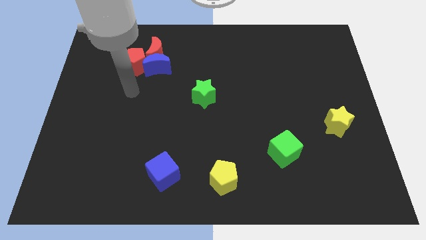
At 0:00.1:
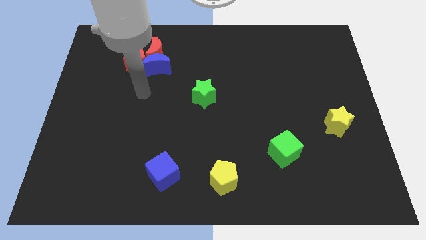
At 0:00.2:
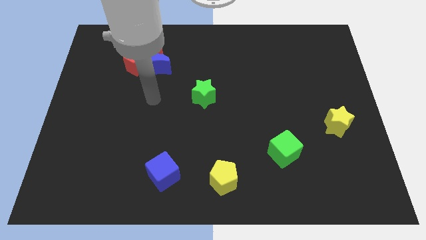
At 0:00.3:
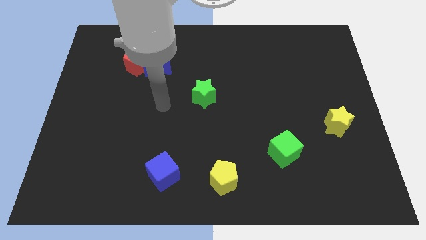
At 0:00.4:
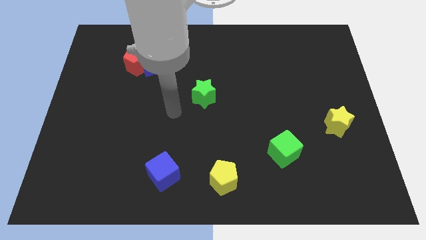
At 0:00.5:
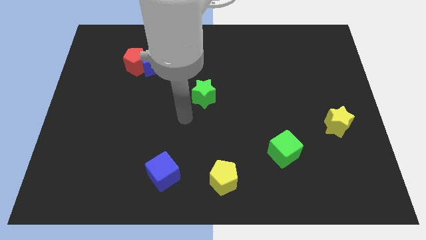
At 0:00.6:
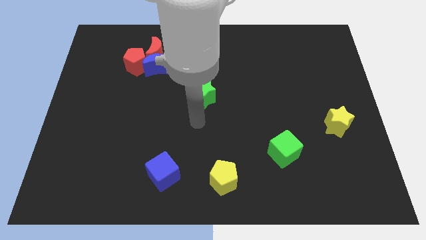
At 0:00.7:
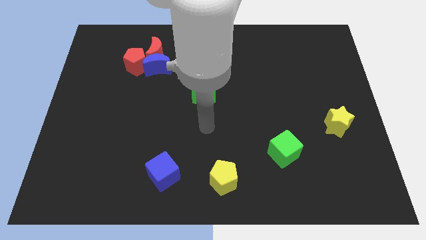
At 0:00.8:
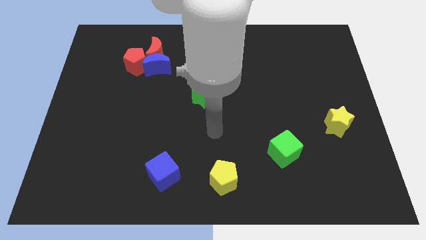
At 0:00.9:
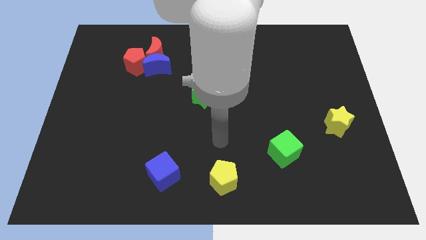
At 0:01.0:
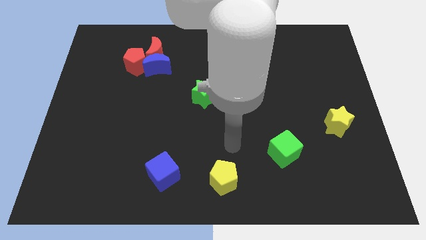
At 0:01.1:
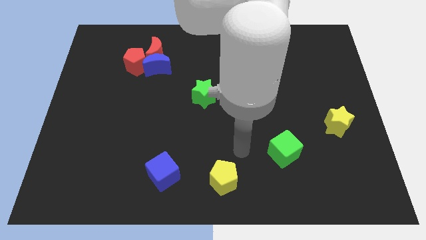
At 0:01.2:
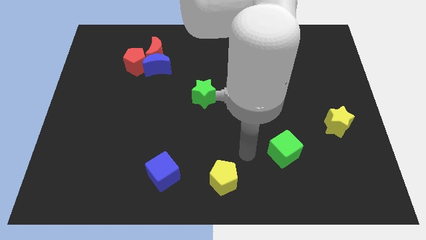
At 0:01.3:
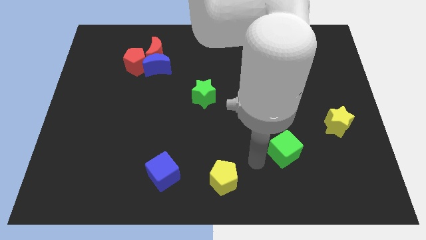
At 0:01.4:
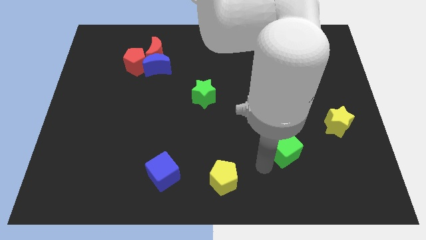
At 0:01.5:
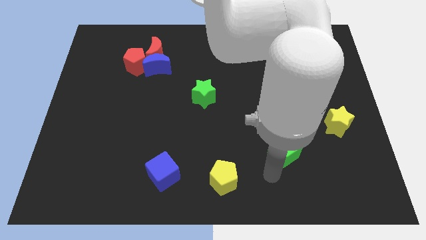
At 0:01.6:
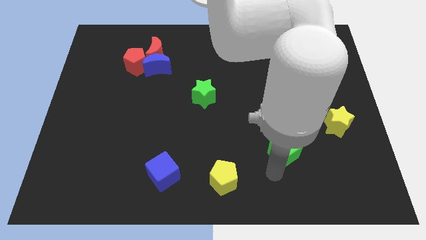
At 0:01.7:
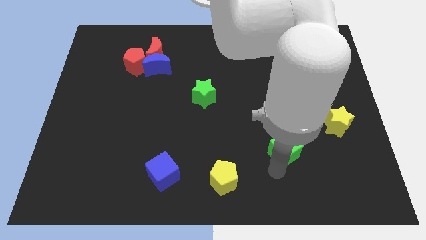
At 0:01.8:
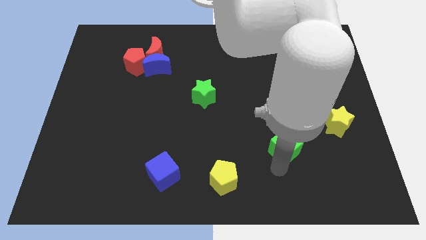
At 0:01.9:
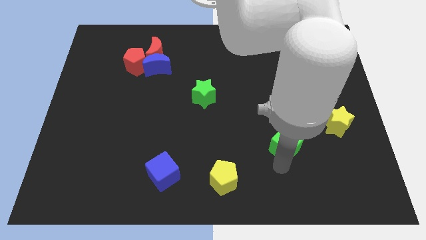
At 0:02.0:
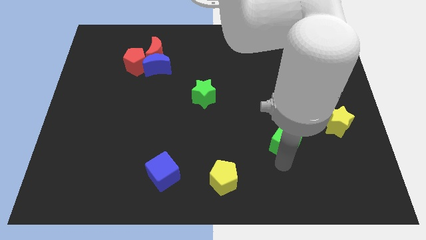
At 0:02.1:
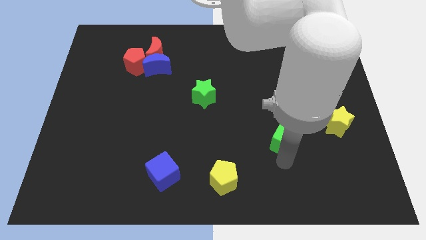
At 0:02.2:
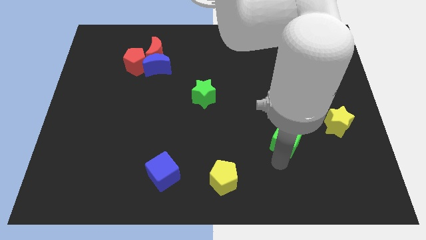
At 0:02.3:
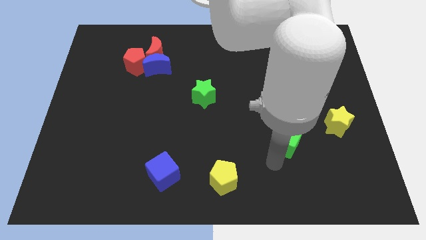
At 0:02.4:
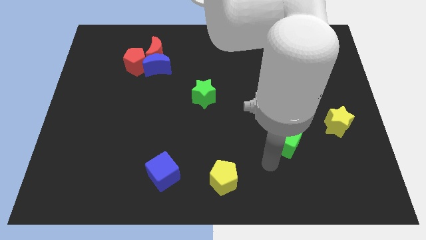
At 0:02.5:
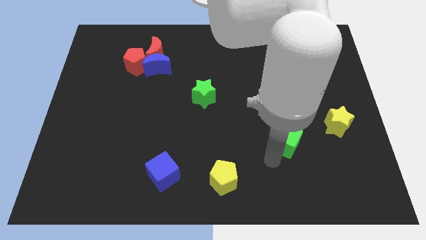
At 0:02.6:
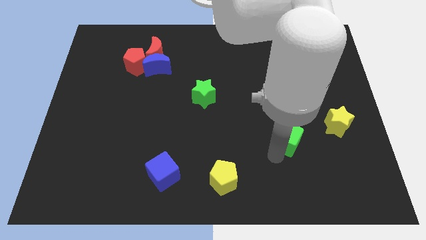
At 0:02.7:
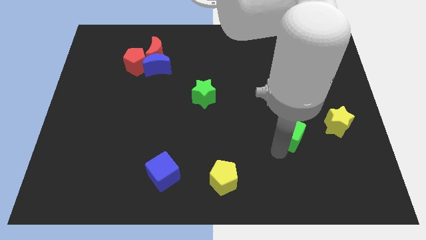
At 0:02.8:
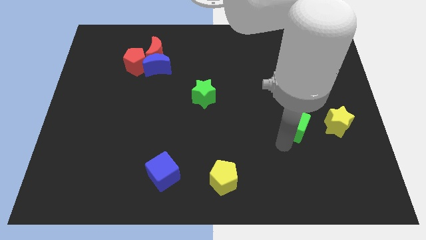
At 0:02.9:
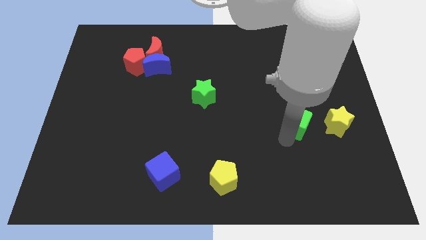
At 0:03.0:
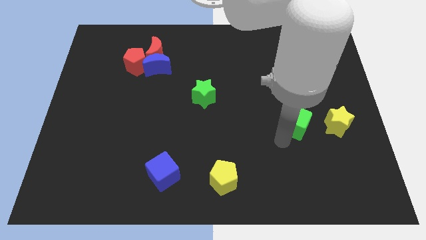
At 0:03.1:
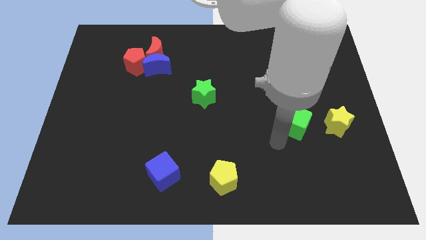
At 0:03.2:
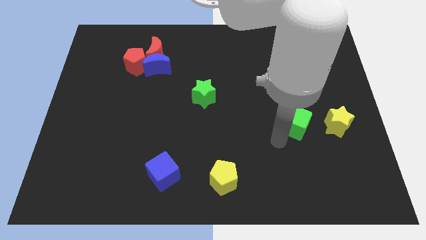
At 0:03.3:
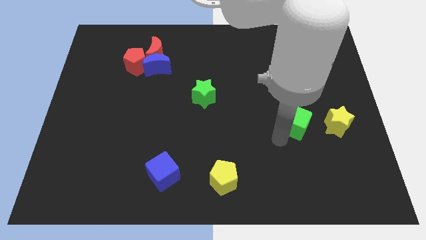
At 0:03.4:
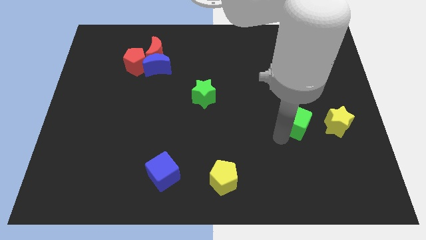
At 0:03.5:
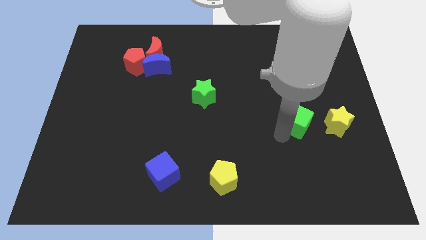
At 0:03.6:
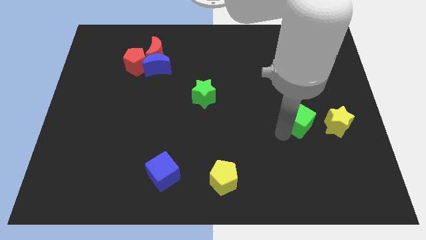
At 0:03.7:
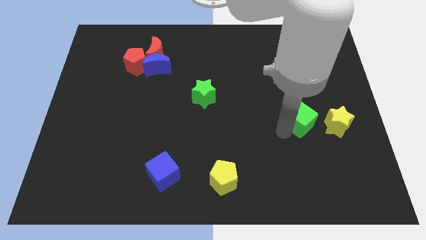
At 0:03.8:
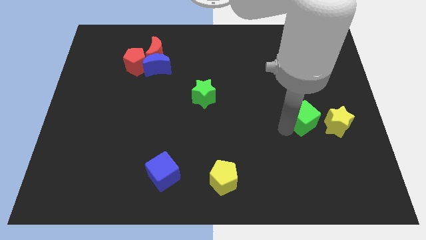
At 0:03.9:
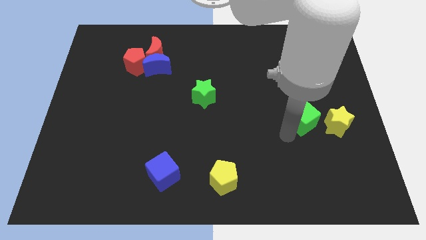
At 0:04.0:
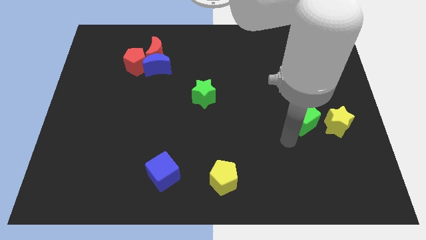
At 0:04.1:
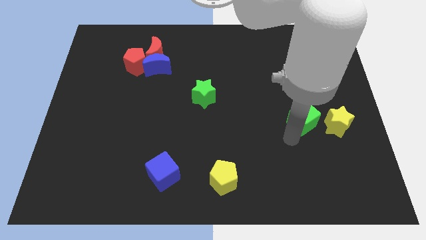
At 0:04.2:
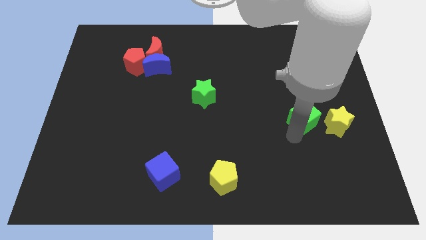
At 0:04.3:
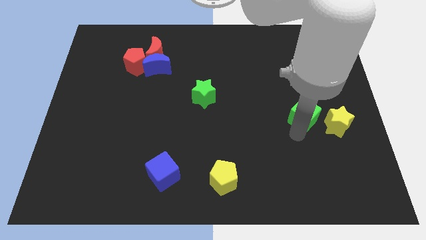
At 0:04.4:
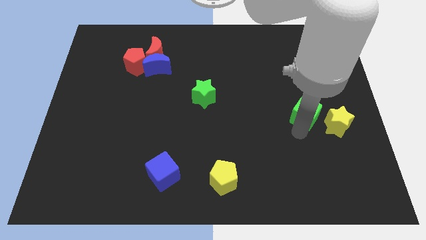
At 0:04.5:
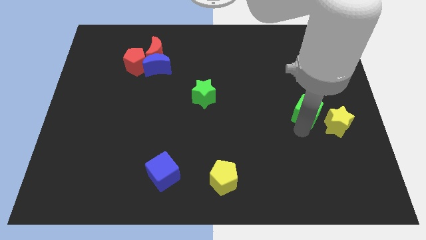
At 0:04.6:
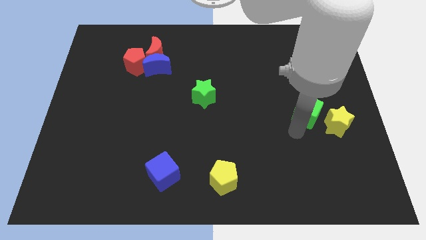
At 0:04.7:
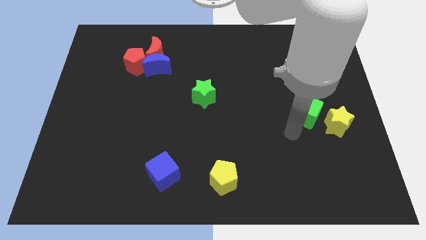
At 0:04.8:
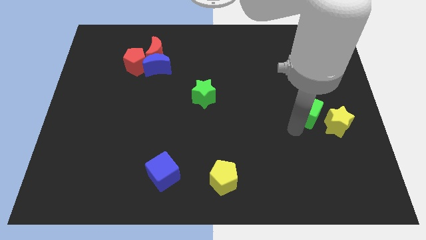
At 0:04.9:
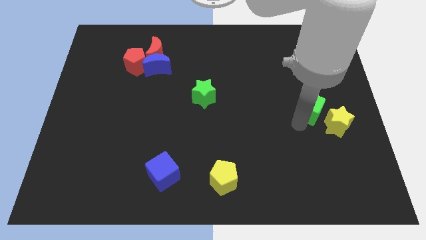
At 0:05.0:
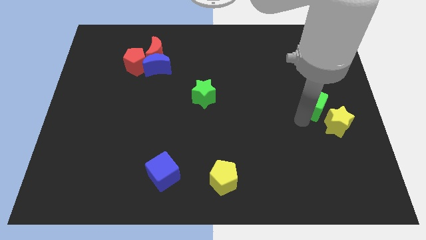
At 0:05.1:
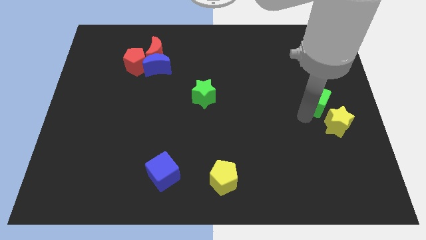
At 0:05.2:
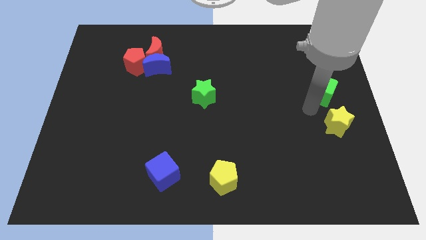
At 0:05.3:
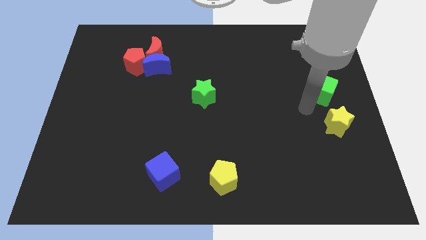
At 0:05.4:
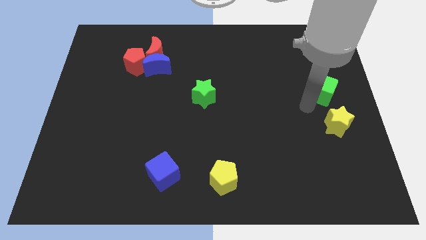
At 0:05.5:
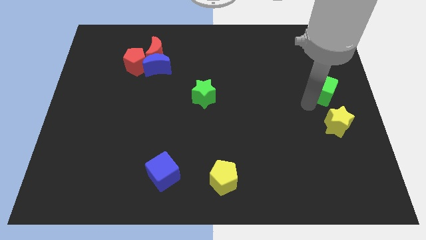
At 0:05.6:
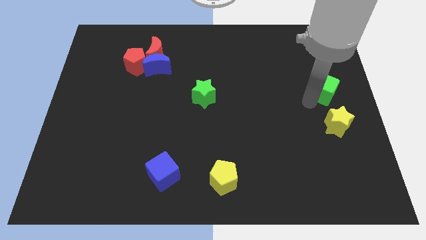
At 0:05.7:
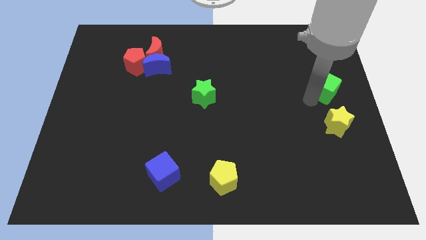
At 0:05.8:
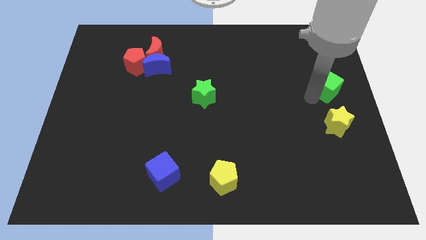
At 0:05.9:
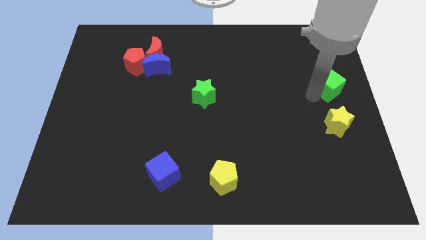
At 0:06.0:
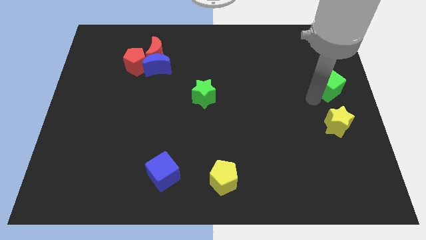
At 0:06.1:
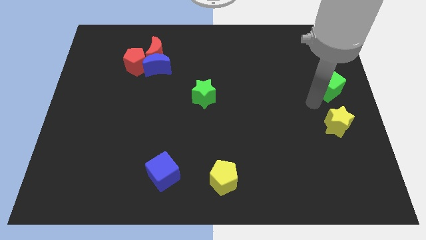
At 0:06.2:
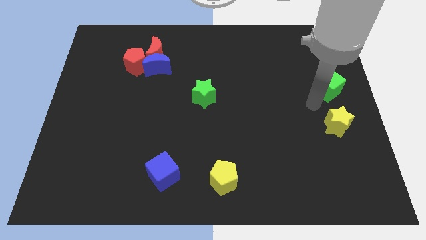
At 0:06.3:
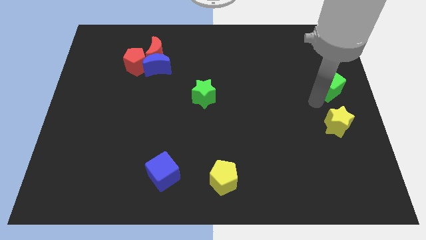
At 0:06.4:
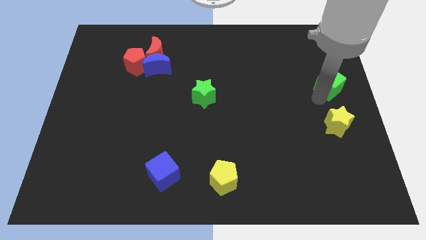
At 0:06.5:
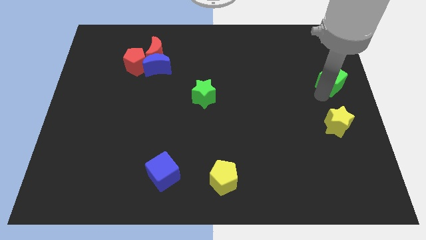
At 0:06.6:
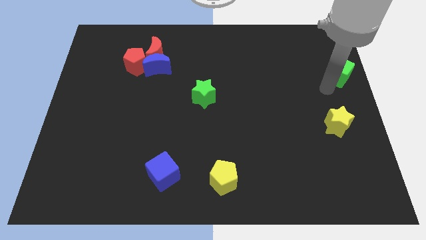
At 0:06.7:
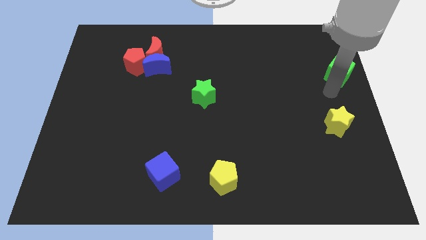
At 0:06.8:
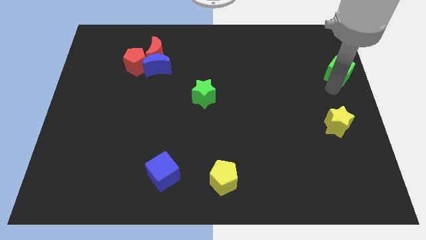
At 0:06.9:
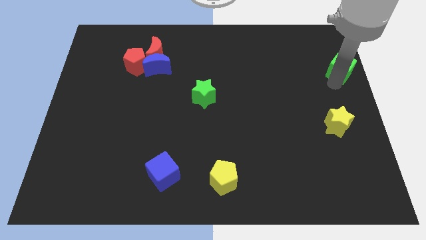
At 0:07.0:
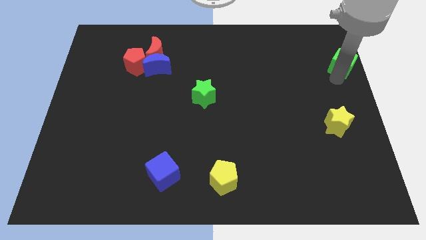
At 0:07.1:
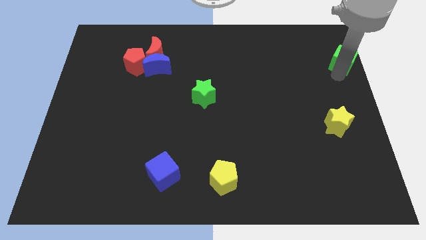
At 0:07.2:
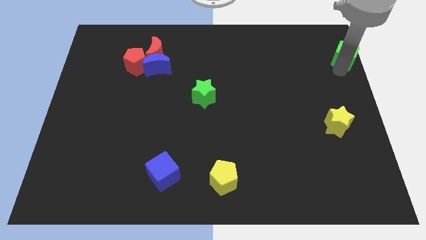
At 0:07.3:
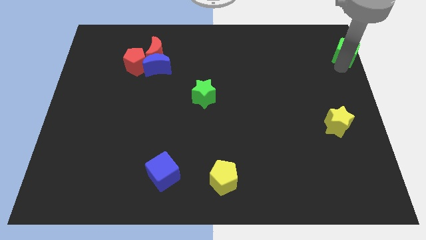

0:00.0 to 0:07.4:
put the green cube to the top right corner

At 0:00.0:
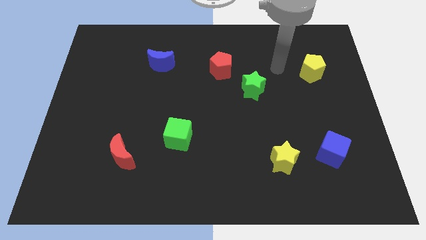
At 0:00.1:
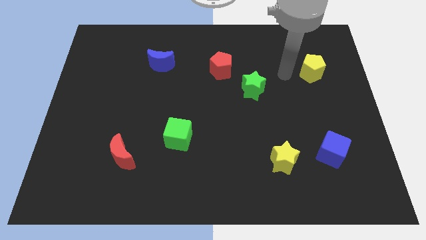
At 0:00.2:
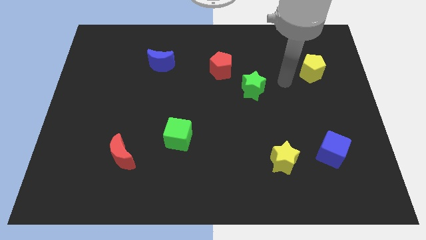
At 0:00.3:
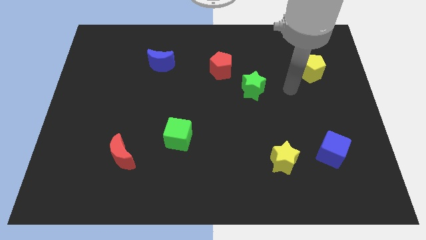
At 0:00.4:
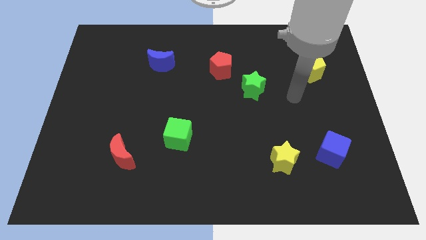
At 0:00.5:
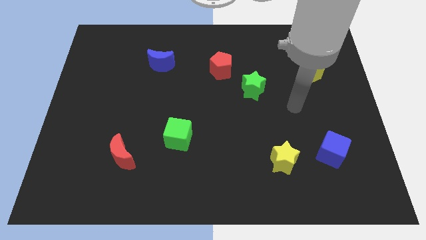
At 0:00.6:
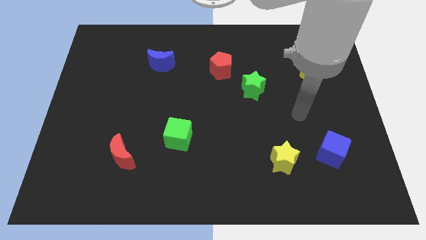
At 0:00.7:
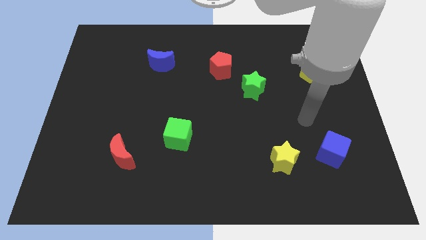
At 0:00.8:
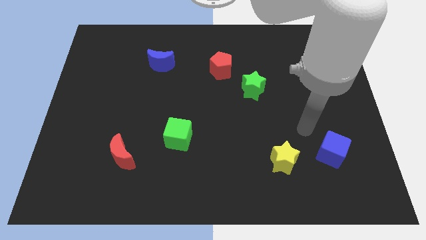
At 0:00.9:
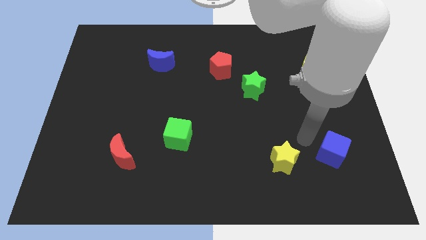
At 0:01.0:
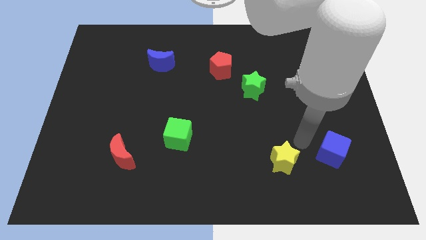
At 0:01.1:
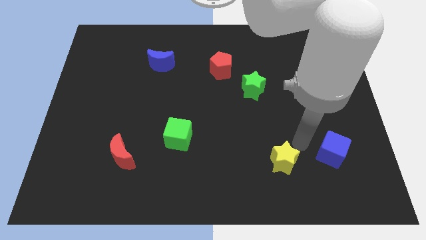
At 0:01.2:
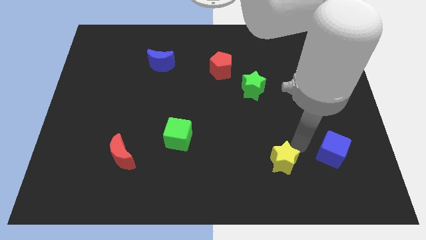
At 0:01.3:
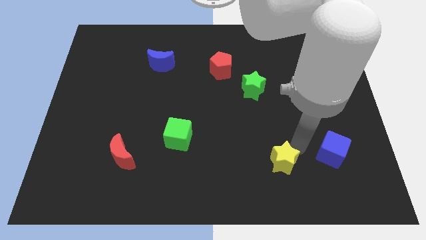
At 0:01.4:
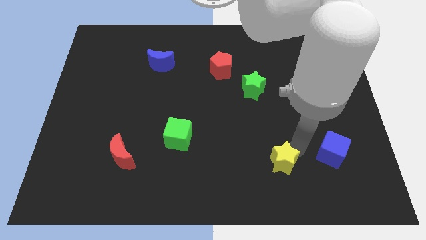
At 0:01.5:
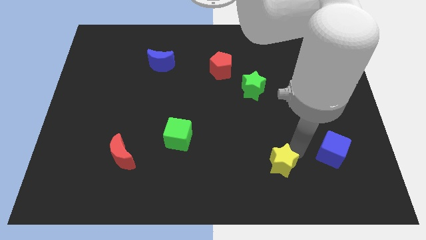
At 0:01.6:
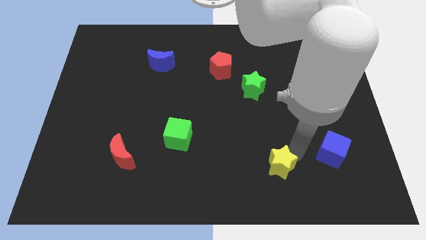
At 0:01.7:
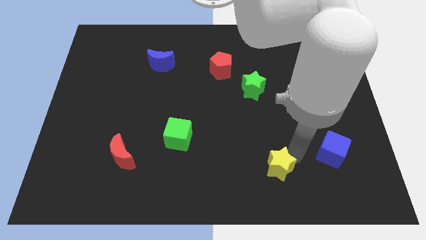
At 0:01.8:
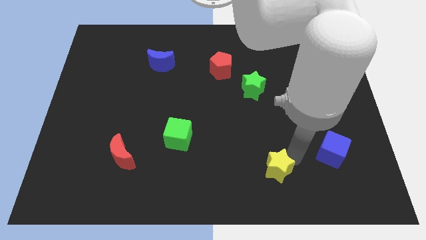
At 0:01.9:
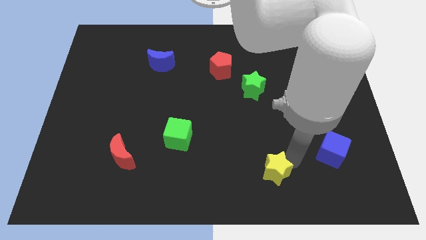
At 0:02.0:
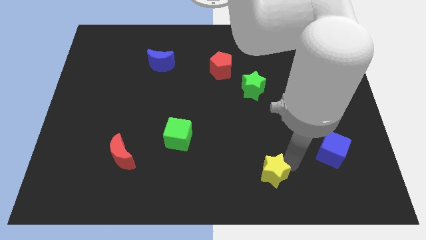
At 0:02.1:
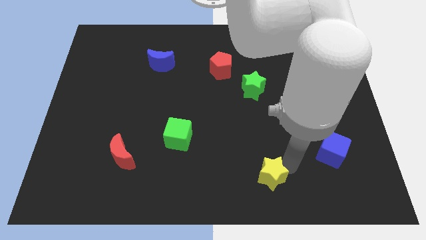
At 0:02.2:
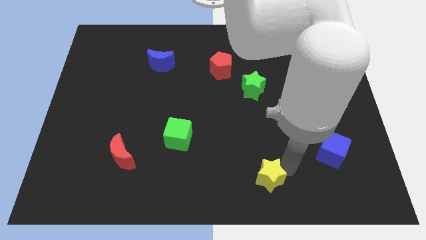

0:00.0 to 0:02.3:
put the yellow star to the bottom
